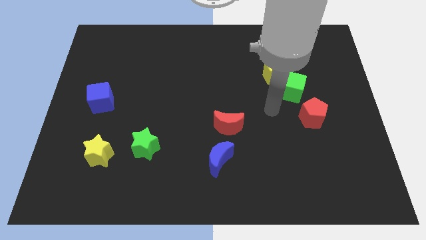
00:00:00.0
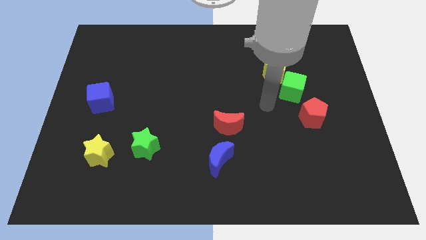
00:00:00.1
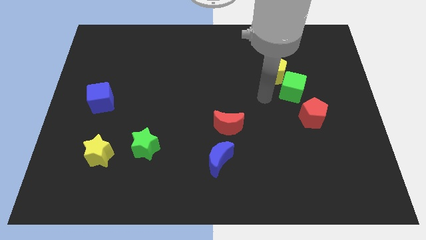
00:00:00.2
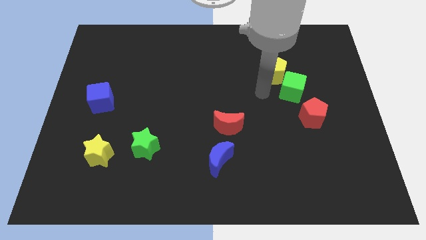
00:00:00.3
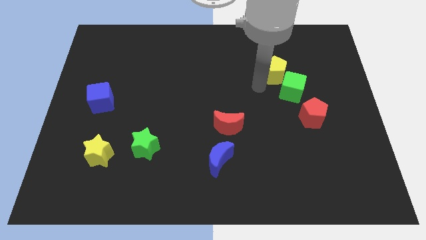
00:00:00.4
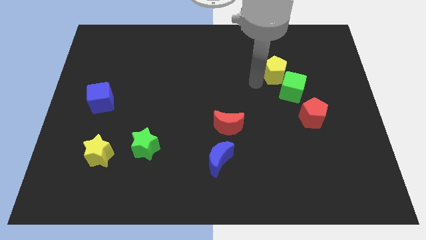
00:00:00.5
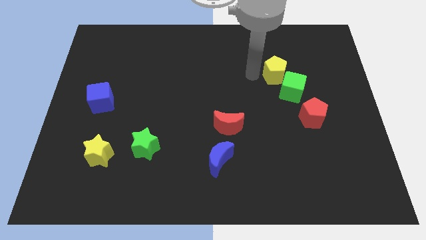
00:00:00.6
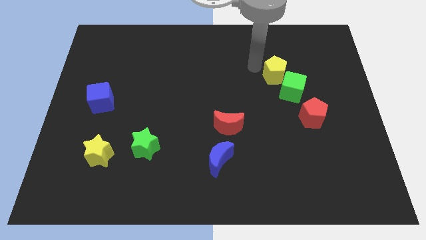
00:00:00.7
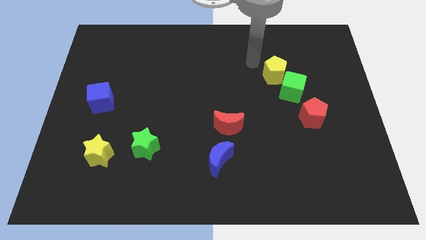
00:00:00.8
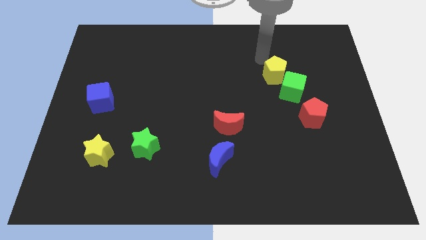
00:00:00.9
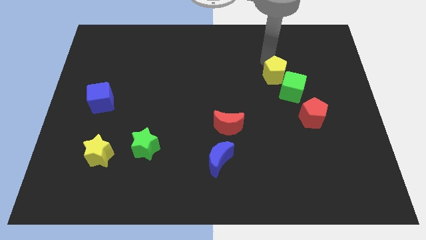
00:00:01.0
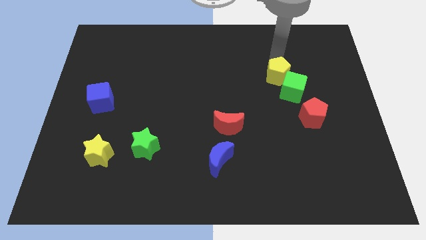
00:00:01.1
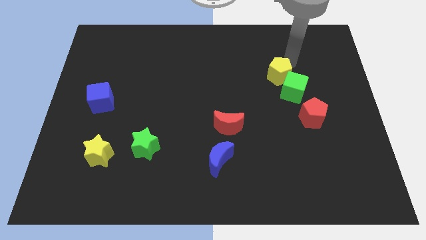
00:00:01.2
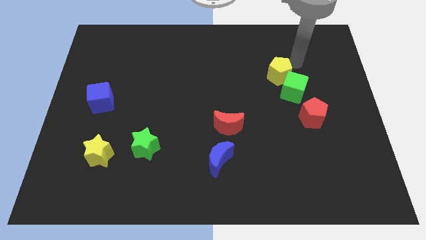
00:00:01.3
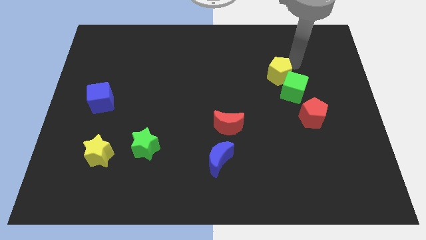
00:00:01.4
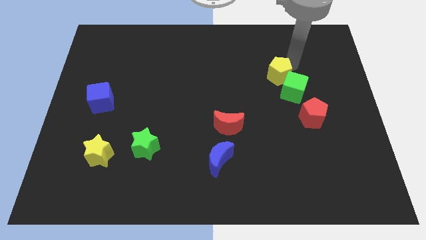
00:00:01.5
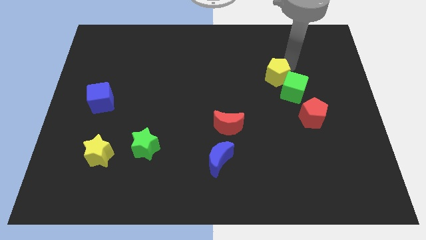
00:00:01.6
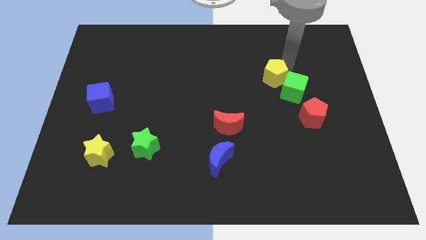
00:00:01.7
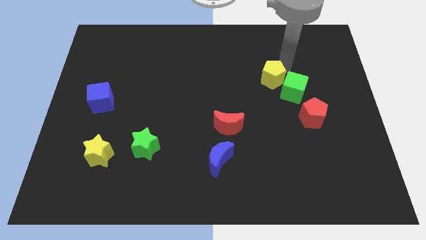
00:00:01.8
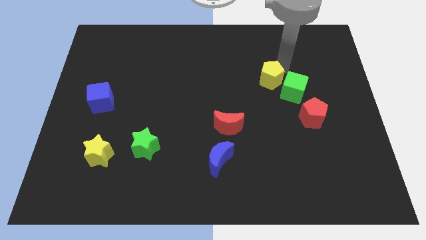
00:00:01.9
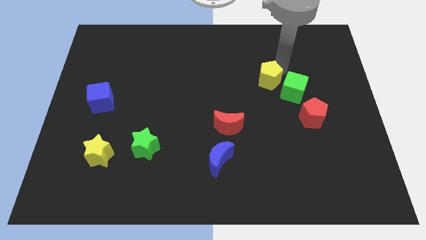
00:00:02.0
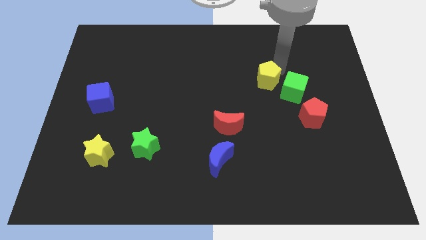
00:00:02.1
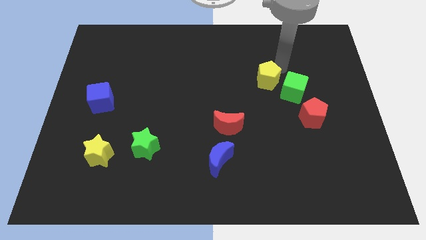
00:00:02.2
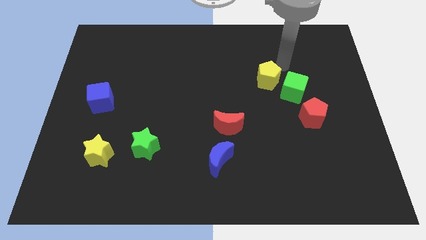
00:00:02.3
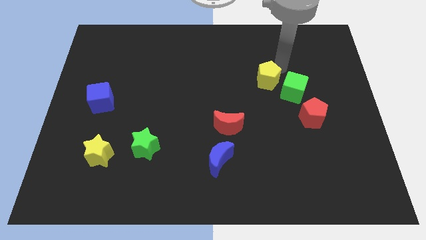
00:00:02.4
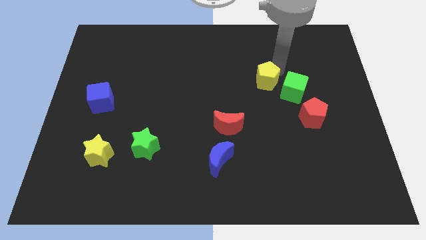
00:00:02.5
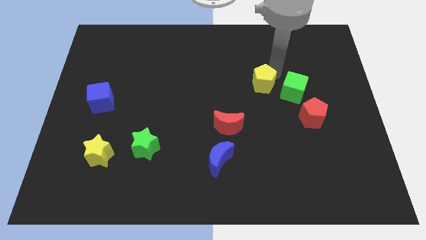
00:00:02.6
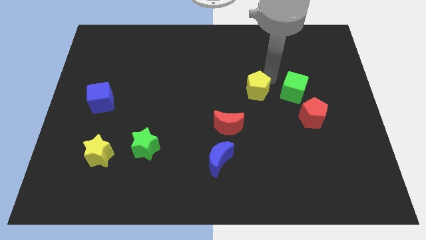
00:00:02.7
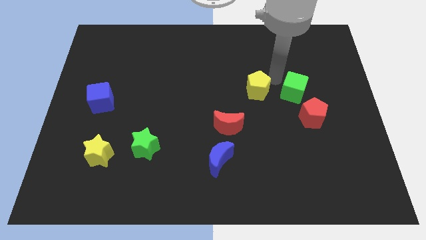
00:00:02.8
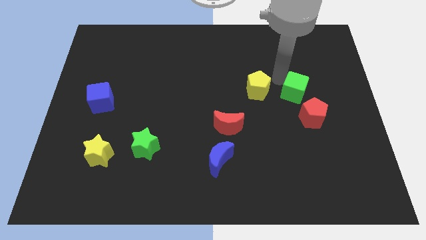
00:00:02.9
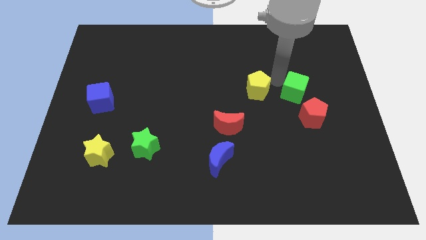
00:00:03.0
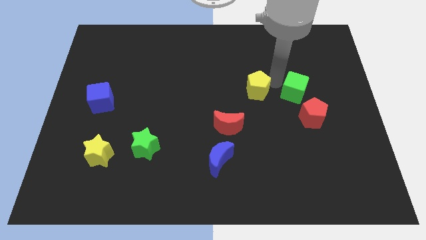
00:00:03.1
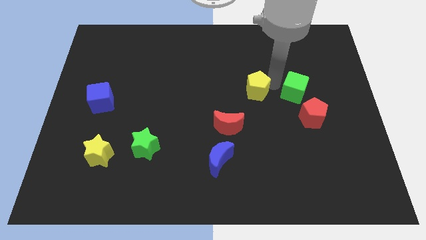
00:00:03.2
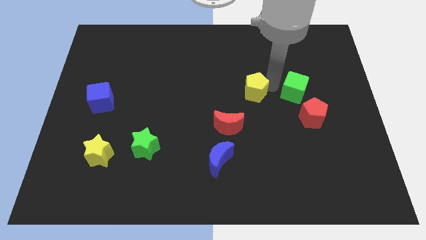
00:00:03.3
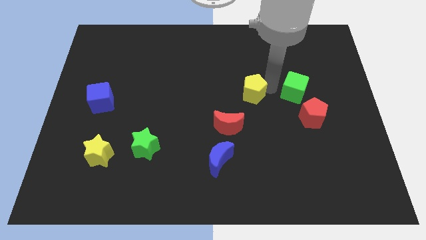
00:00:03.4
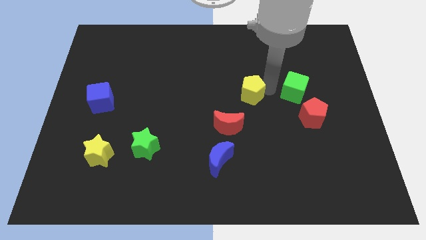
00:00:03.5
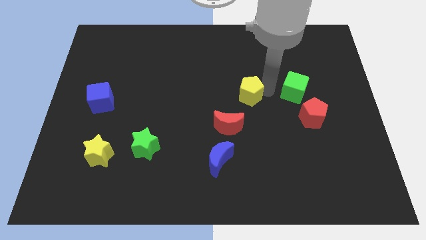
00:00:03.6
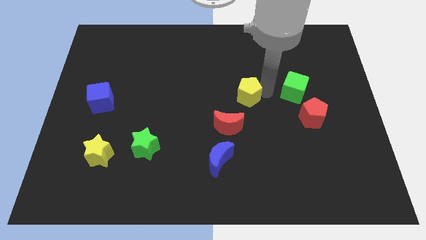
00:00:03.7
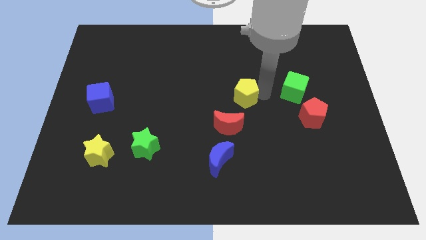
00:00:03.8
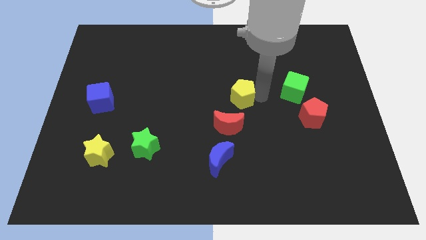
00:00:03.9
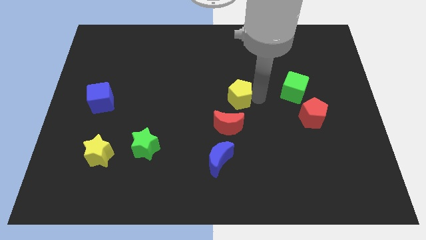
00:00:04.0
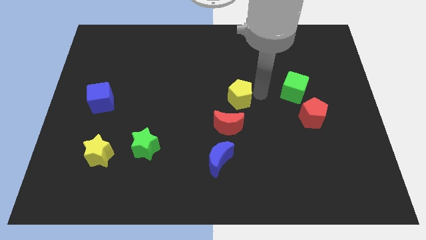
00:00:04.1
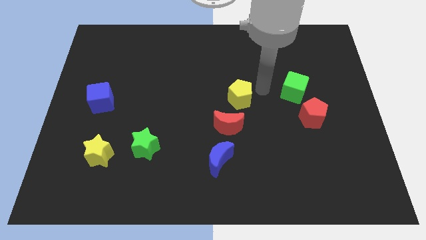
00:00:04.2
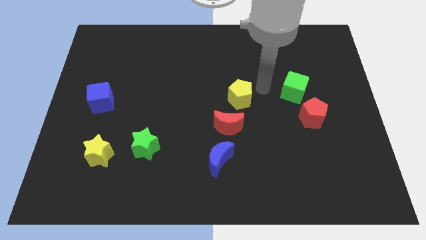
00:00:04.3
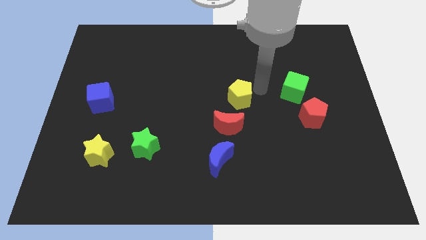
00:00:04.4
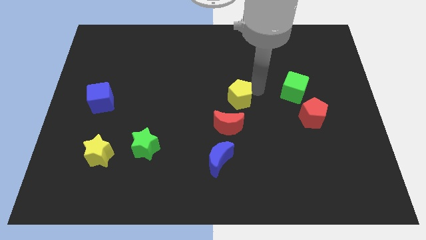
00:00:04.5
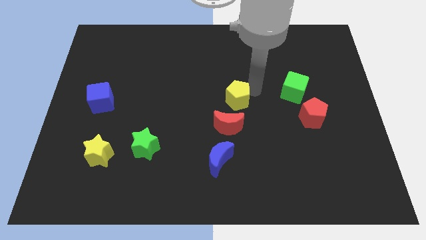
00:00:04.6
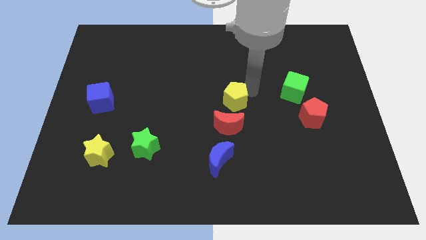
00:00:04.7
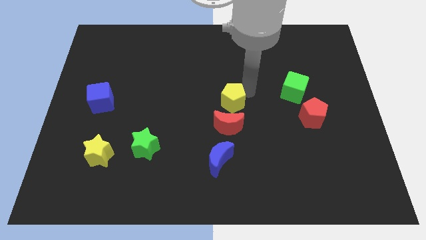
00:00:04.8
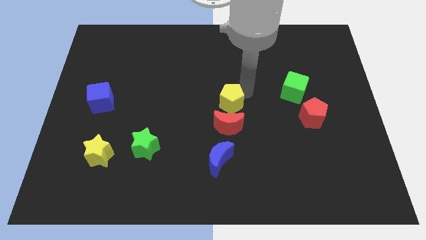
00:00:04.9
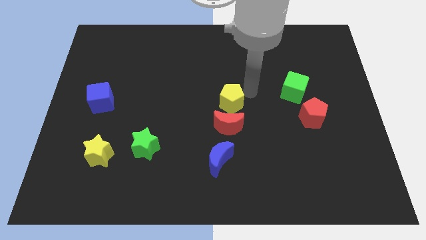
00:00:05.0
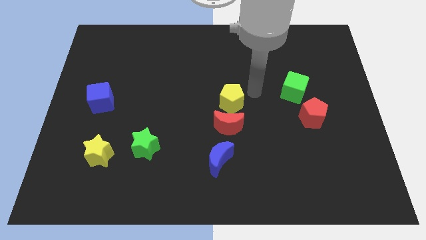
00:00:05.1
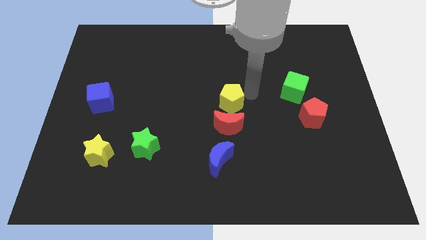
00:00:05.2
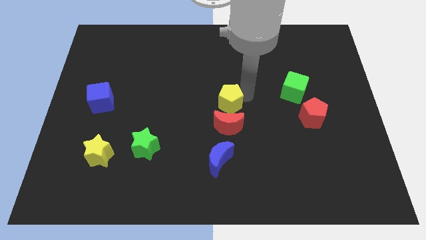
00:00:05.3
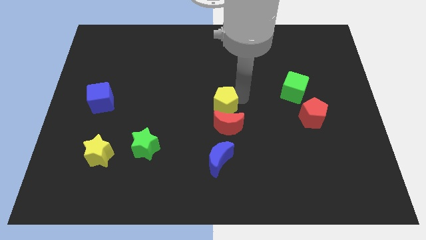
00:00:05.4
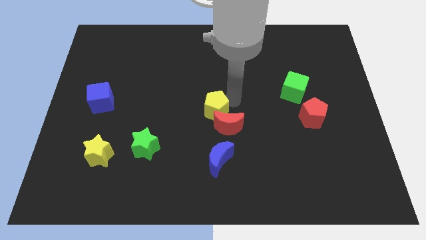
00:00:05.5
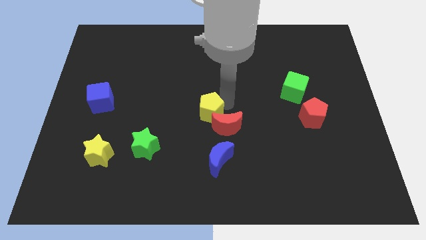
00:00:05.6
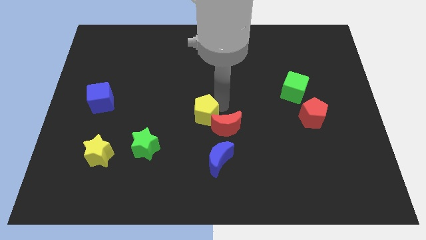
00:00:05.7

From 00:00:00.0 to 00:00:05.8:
slide the yellow pentagon down and left diagonally

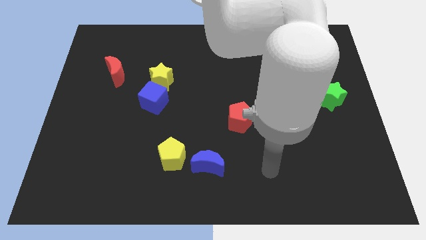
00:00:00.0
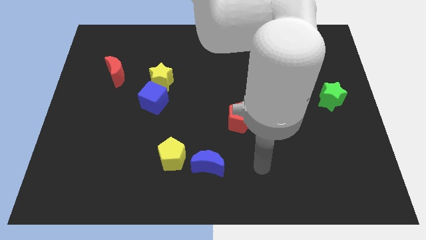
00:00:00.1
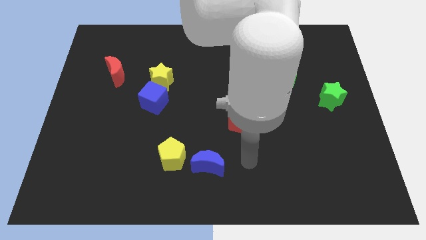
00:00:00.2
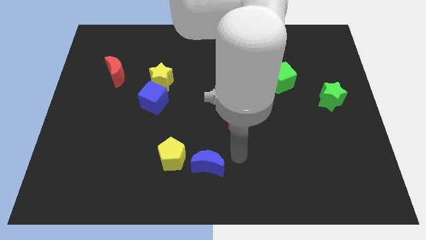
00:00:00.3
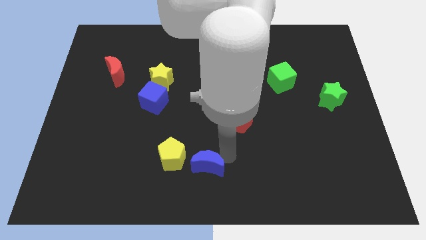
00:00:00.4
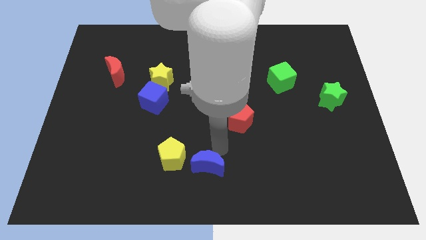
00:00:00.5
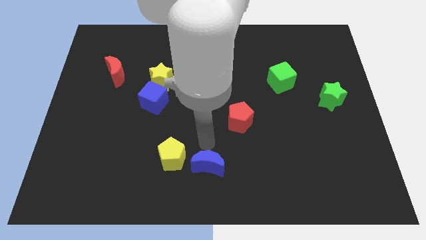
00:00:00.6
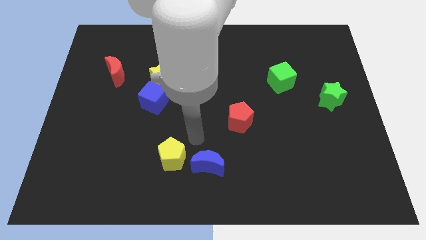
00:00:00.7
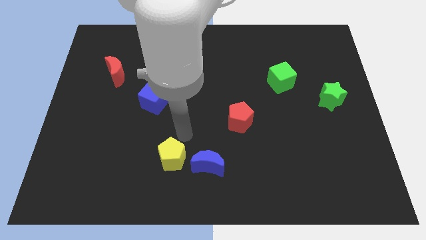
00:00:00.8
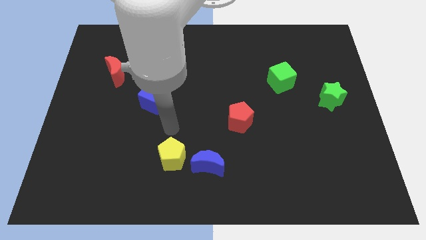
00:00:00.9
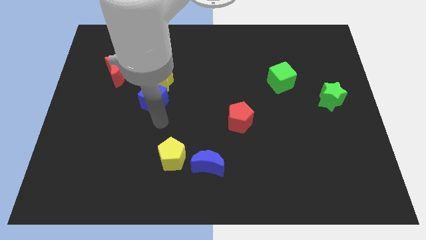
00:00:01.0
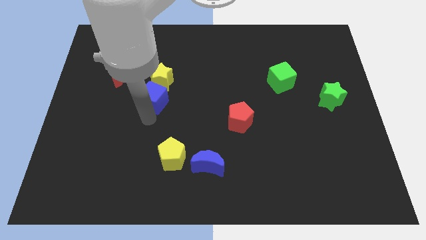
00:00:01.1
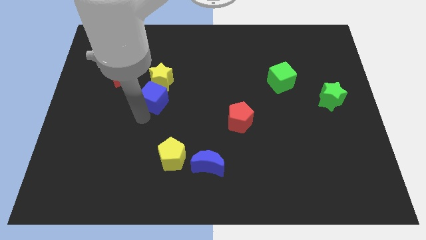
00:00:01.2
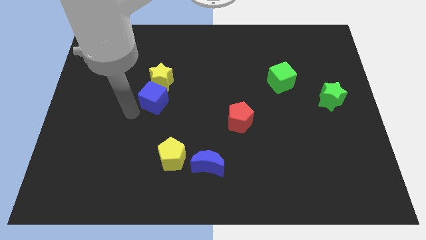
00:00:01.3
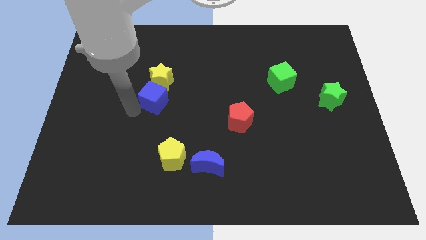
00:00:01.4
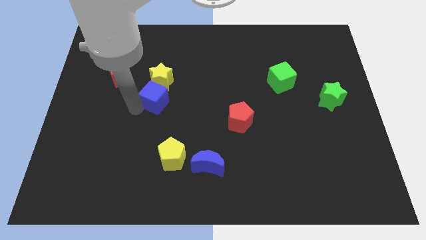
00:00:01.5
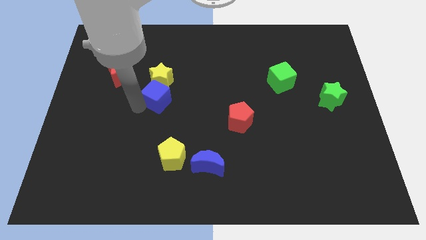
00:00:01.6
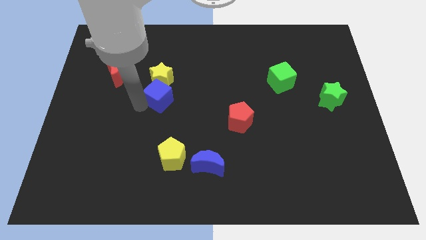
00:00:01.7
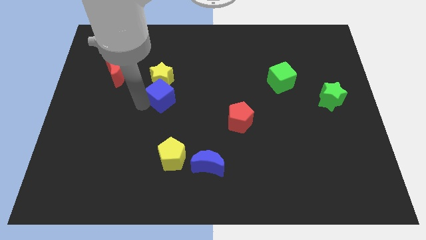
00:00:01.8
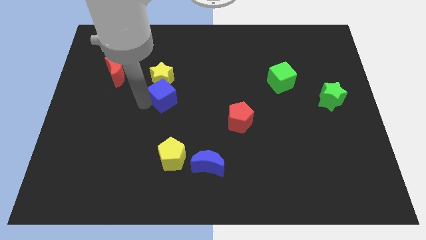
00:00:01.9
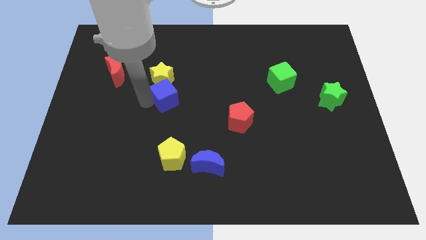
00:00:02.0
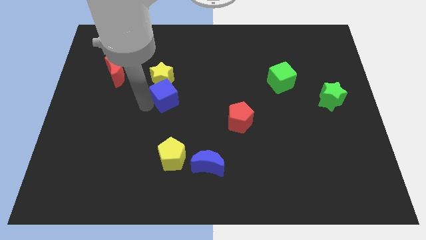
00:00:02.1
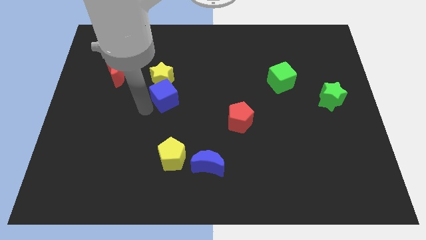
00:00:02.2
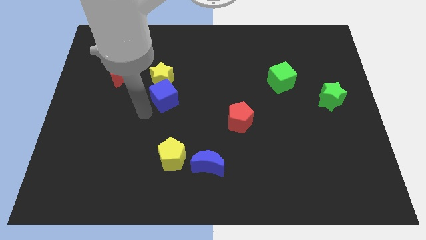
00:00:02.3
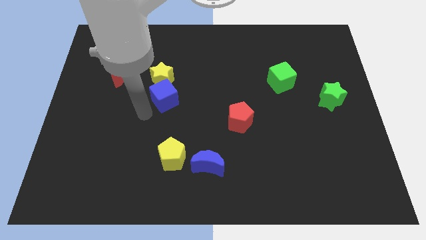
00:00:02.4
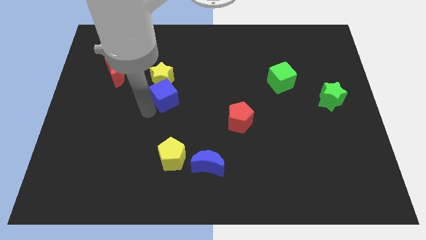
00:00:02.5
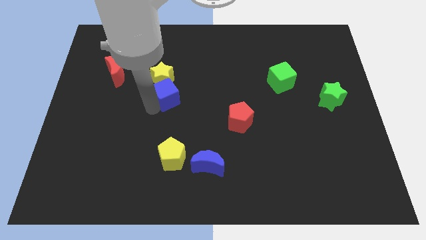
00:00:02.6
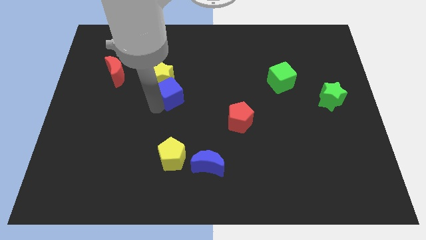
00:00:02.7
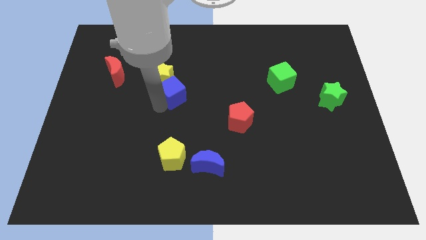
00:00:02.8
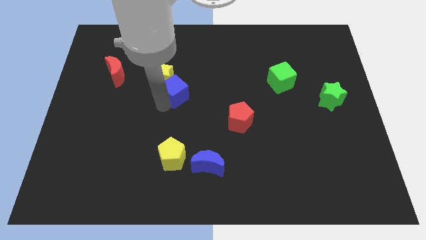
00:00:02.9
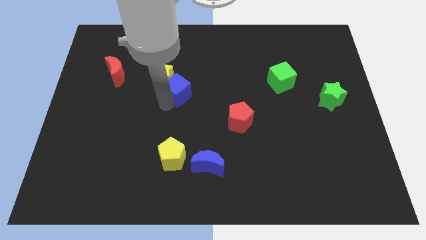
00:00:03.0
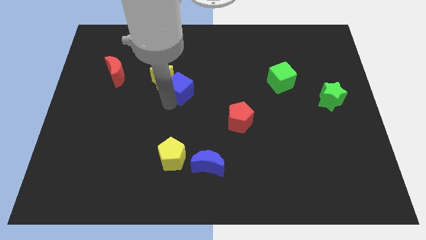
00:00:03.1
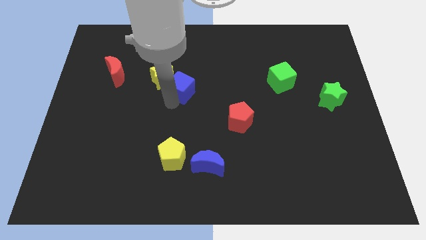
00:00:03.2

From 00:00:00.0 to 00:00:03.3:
slightly slide the blue cube up and then to the right
